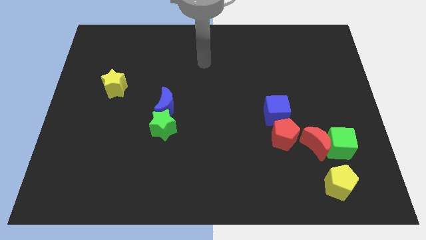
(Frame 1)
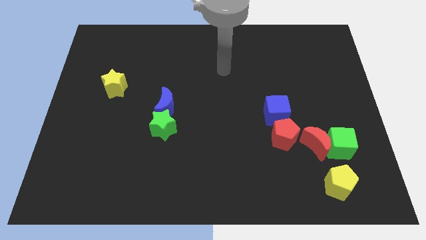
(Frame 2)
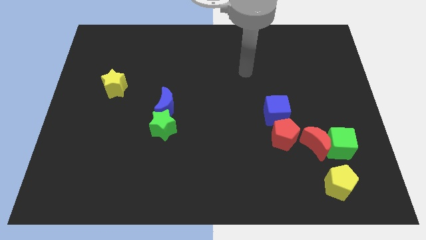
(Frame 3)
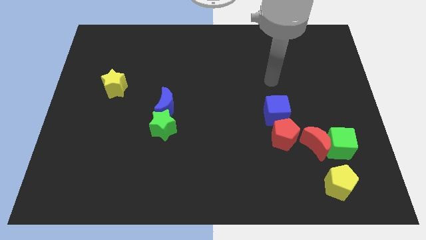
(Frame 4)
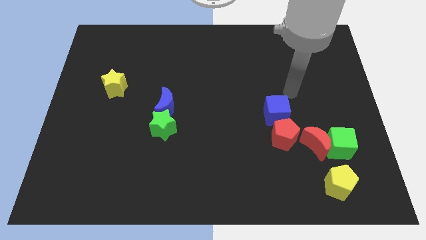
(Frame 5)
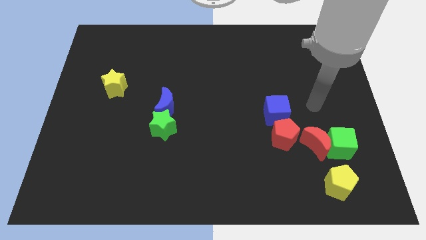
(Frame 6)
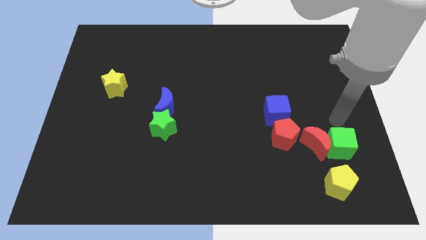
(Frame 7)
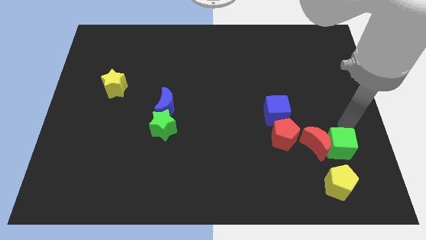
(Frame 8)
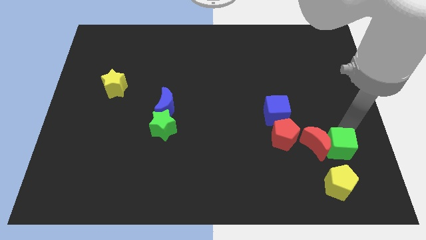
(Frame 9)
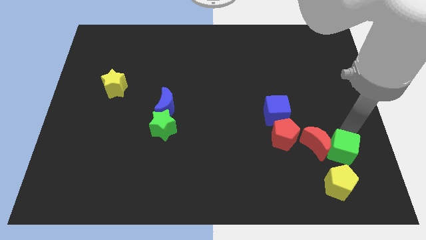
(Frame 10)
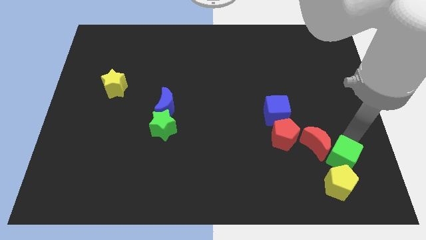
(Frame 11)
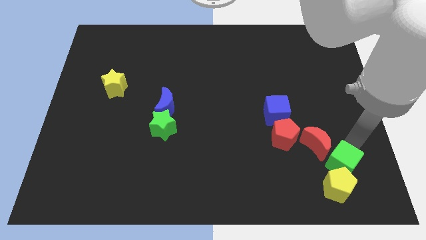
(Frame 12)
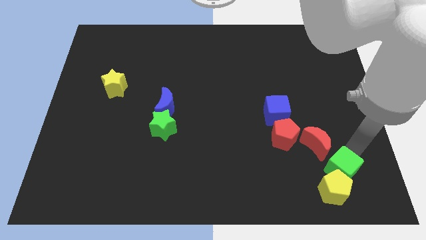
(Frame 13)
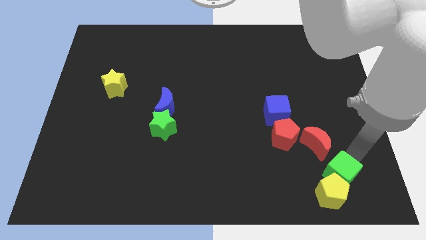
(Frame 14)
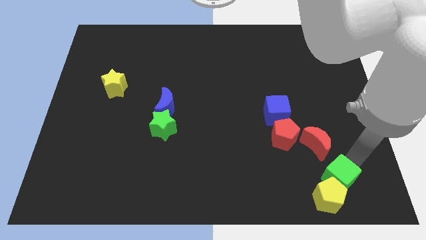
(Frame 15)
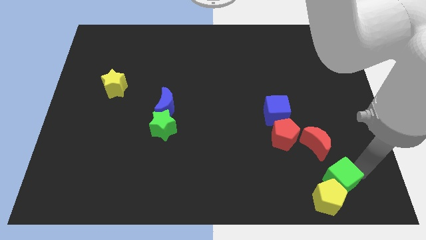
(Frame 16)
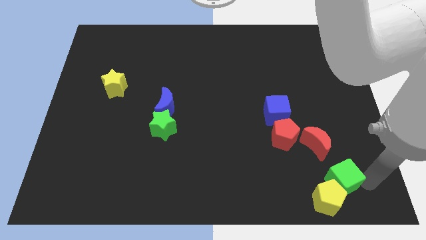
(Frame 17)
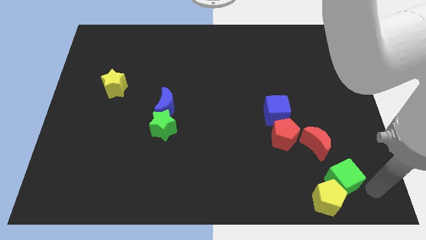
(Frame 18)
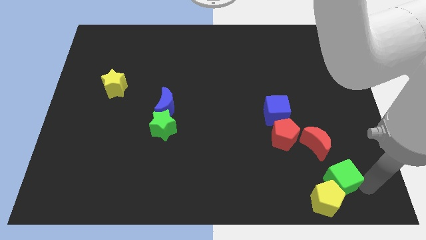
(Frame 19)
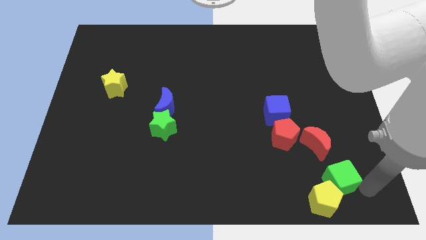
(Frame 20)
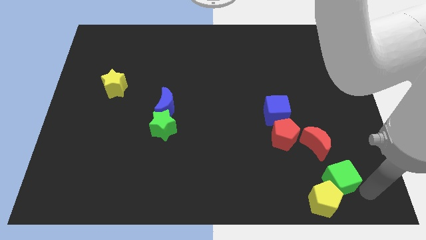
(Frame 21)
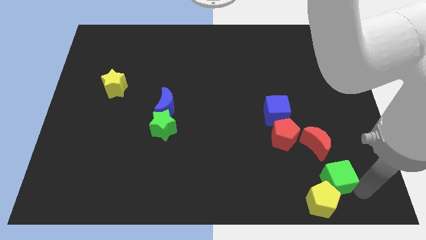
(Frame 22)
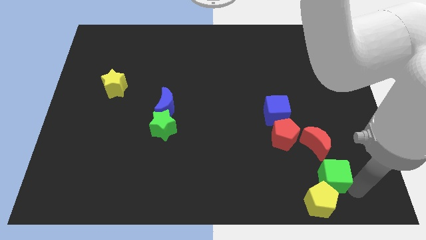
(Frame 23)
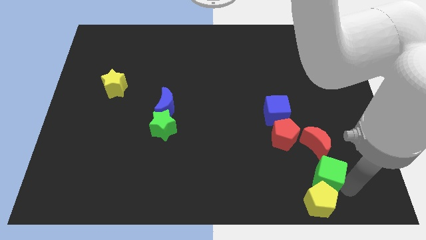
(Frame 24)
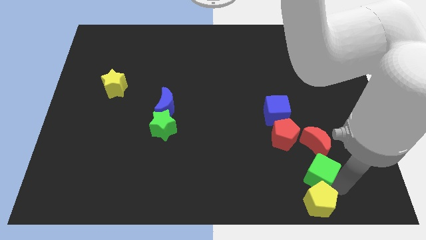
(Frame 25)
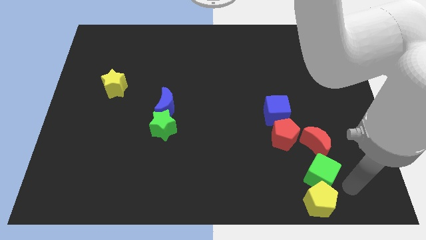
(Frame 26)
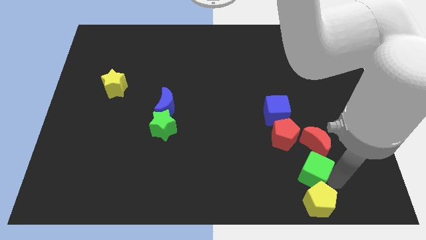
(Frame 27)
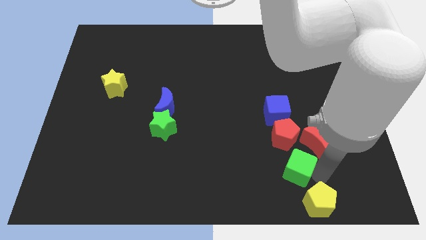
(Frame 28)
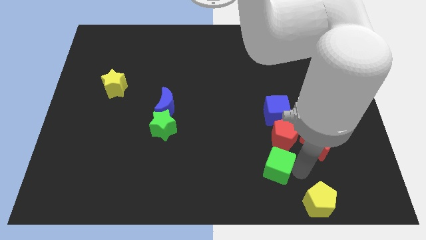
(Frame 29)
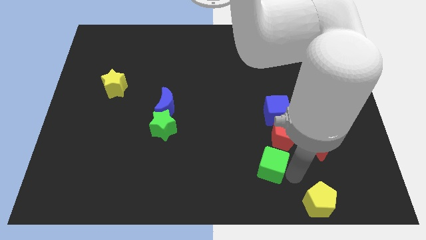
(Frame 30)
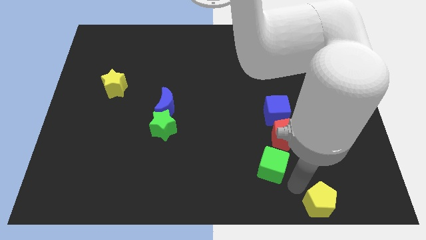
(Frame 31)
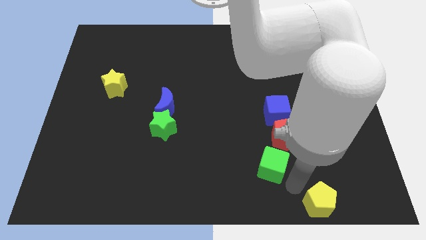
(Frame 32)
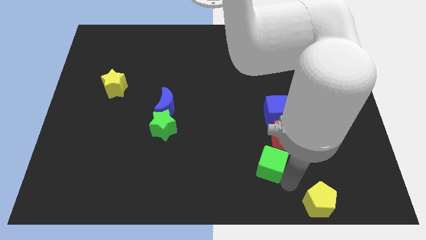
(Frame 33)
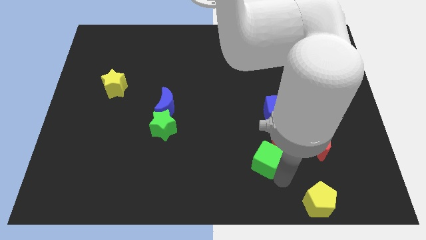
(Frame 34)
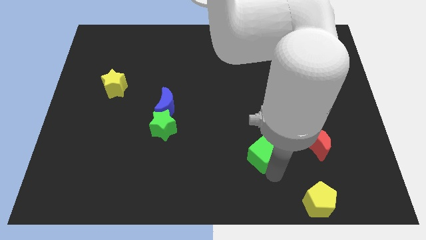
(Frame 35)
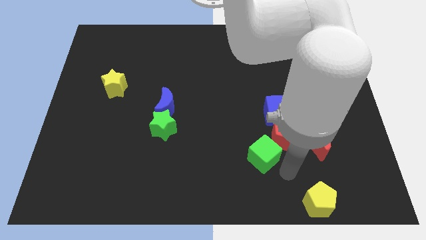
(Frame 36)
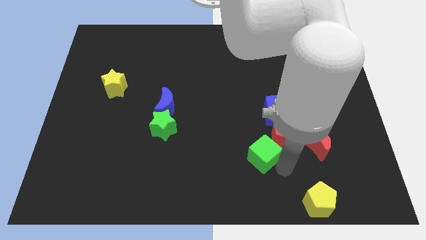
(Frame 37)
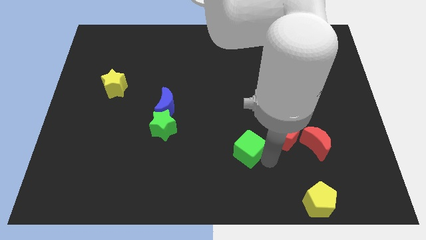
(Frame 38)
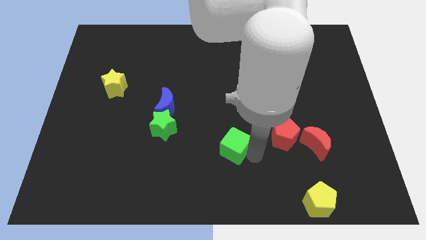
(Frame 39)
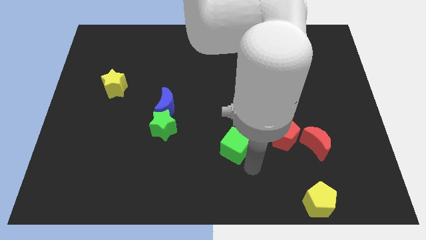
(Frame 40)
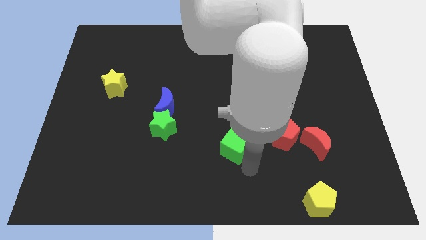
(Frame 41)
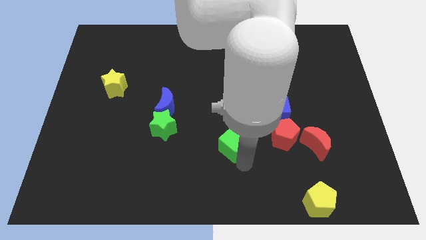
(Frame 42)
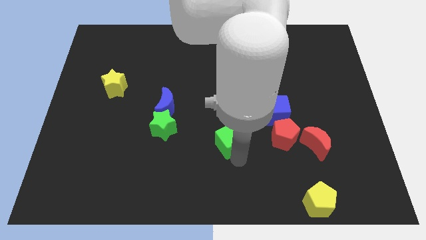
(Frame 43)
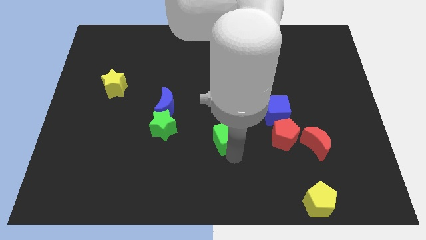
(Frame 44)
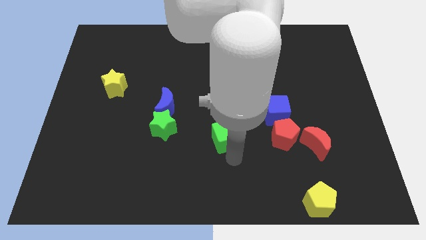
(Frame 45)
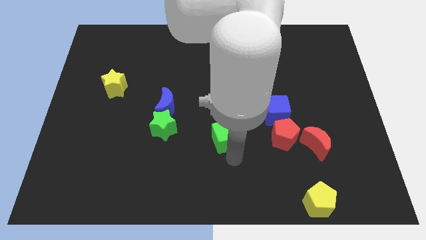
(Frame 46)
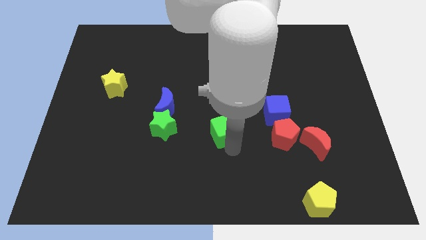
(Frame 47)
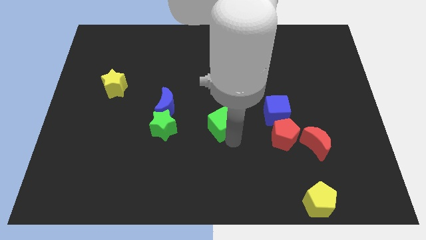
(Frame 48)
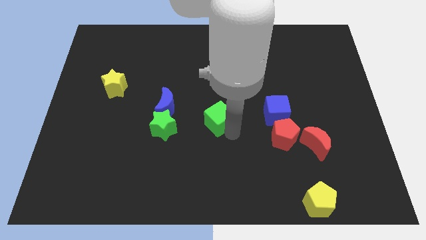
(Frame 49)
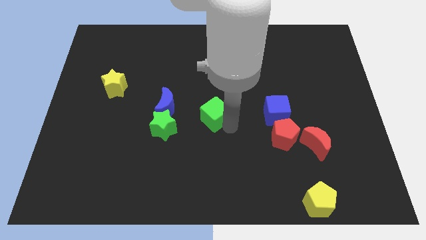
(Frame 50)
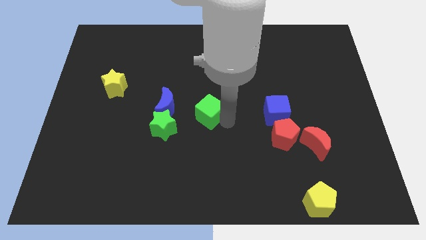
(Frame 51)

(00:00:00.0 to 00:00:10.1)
move the green cube to the top right side of the green star

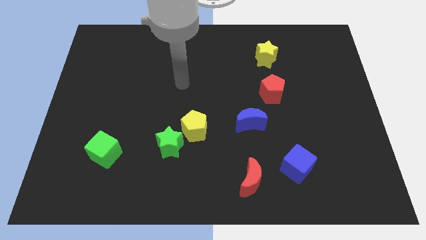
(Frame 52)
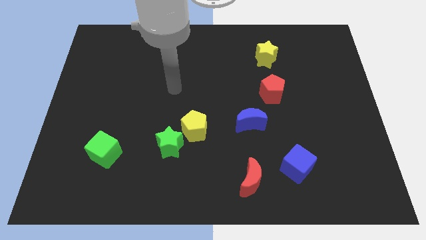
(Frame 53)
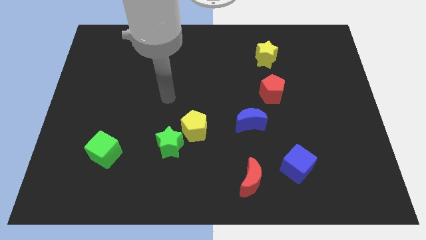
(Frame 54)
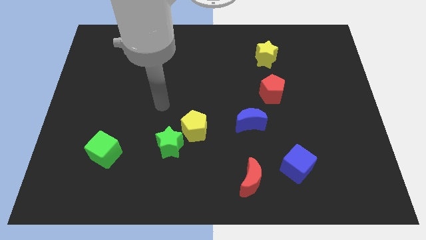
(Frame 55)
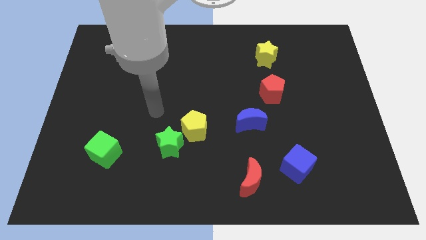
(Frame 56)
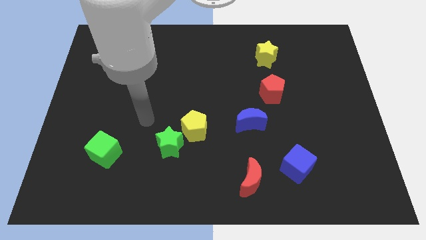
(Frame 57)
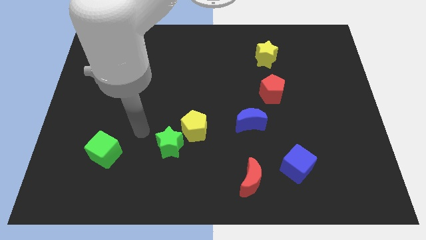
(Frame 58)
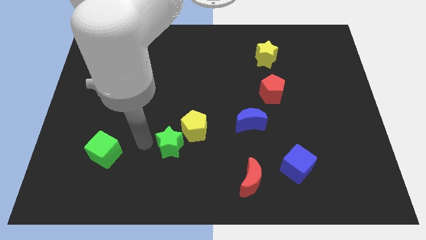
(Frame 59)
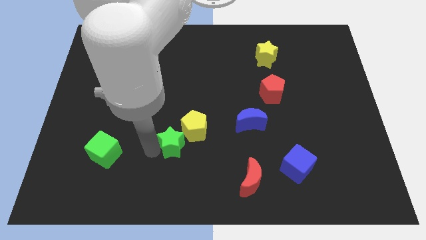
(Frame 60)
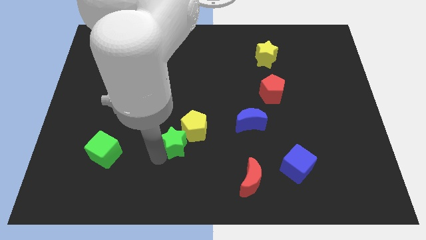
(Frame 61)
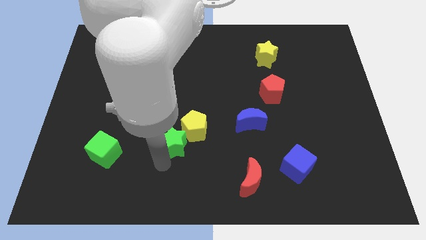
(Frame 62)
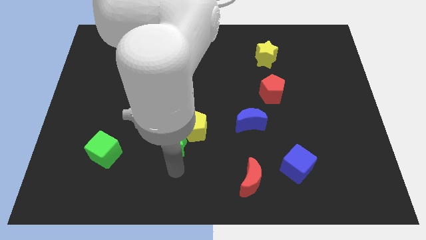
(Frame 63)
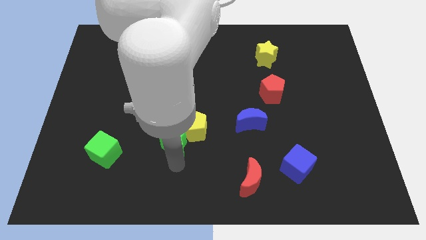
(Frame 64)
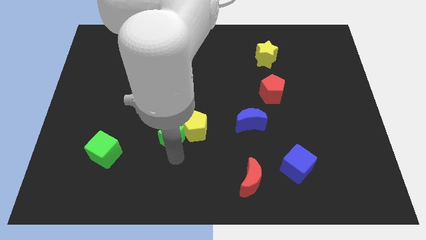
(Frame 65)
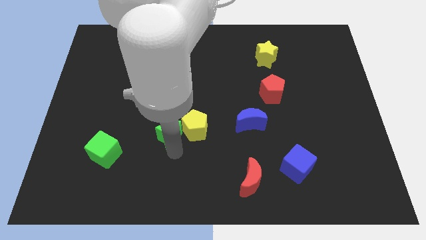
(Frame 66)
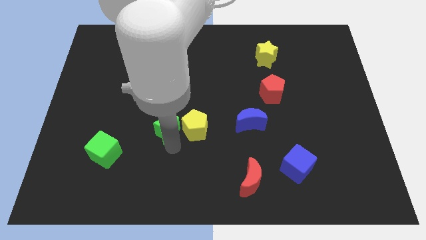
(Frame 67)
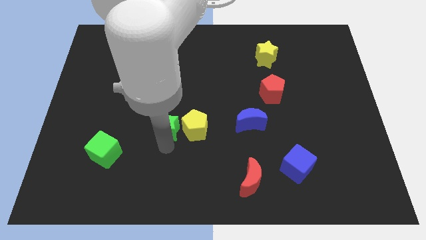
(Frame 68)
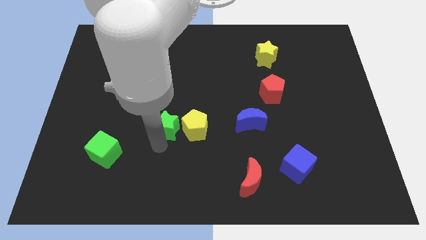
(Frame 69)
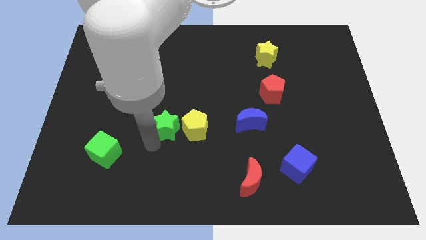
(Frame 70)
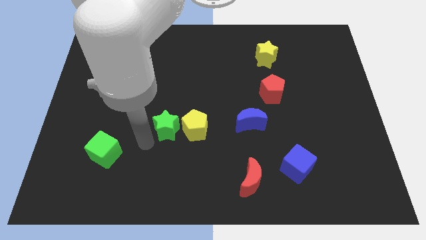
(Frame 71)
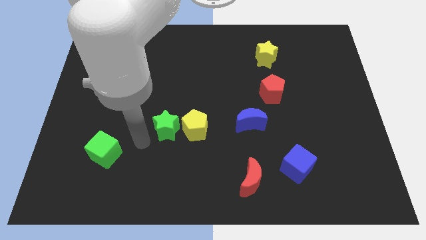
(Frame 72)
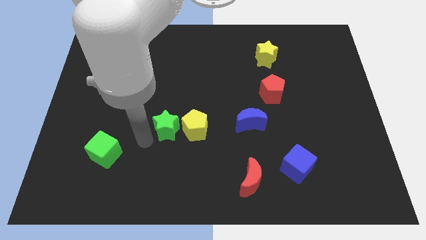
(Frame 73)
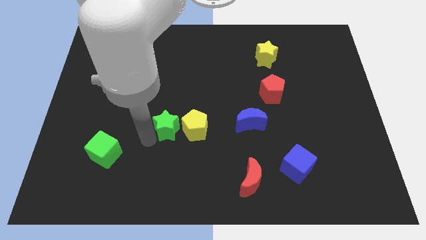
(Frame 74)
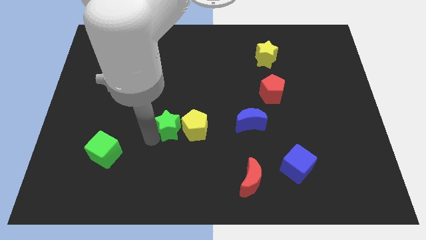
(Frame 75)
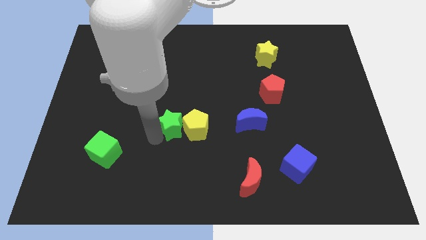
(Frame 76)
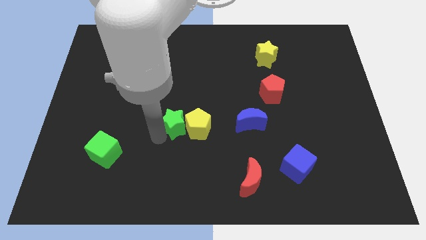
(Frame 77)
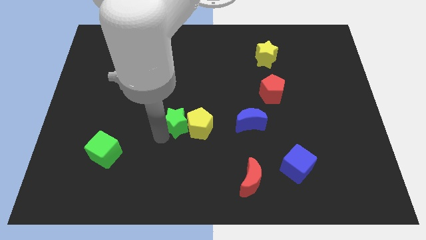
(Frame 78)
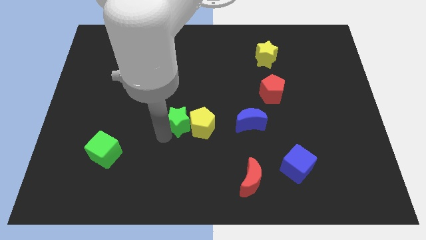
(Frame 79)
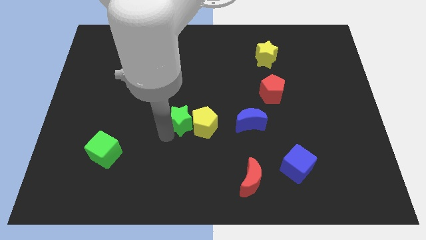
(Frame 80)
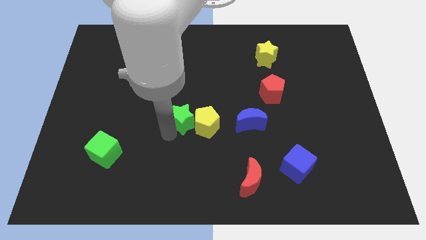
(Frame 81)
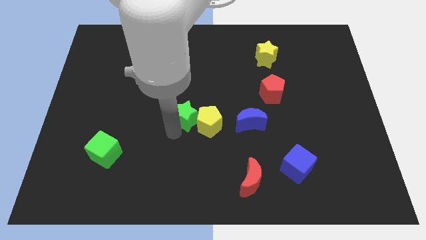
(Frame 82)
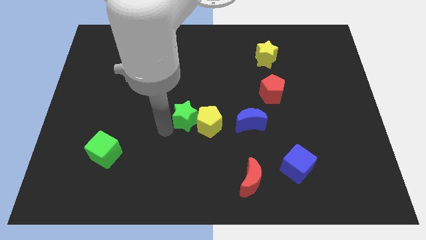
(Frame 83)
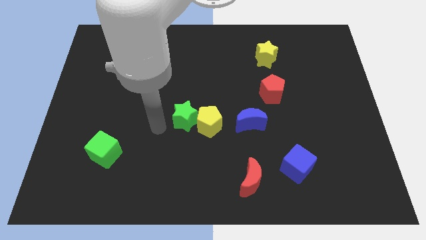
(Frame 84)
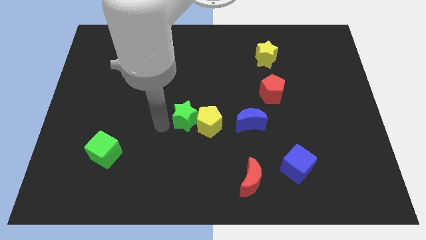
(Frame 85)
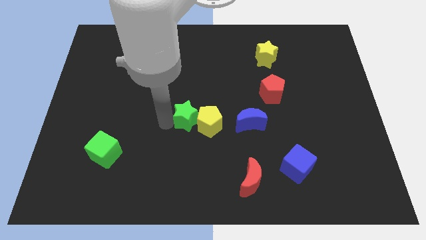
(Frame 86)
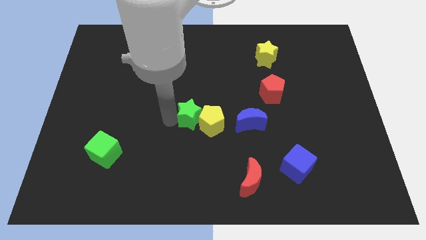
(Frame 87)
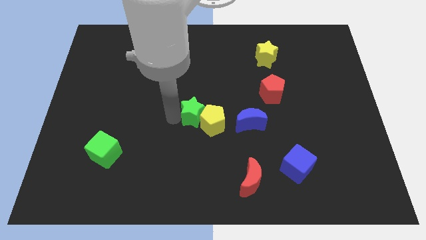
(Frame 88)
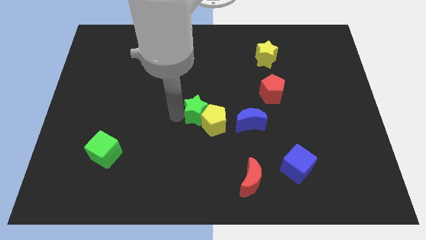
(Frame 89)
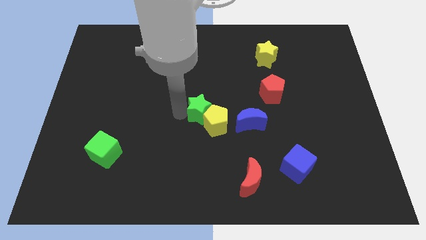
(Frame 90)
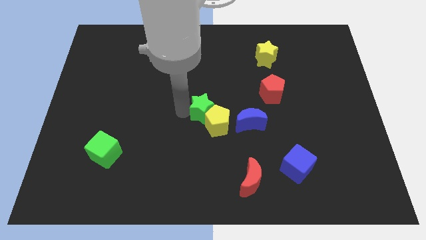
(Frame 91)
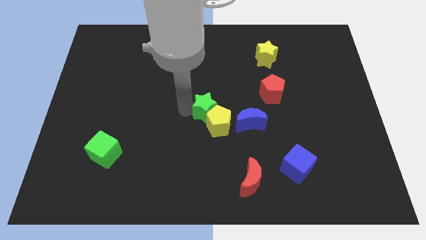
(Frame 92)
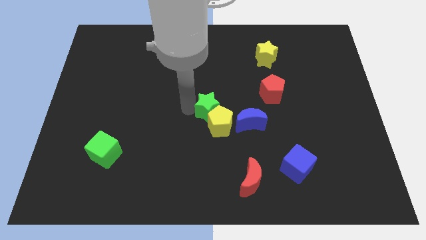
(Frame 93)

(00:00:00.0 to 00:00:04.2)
slide the green star to the top left side of the blue moon
